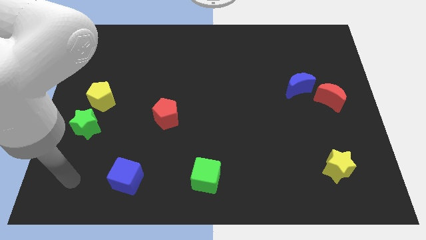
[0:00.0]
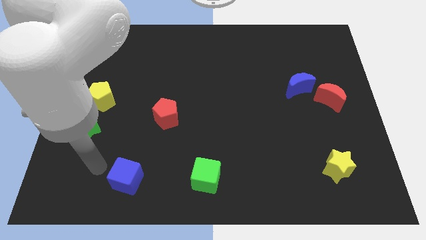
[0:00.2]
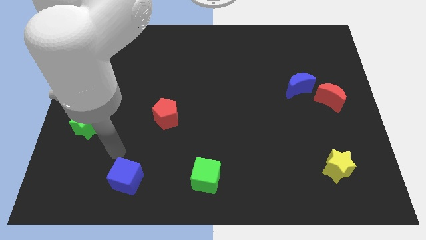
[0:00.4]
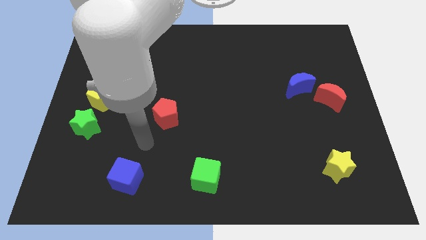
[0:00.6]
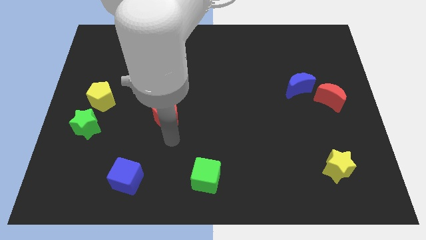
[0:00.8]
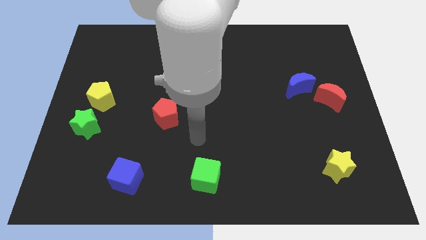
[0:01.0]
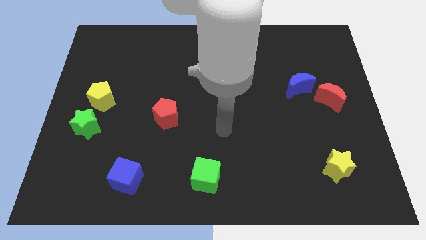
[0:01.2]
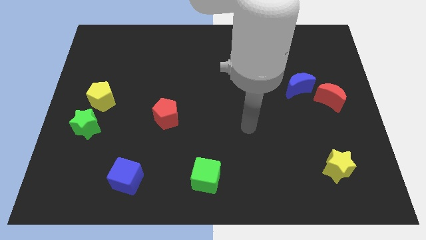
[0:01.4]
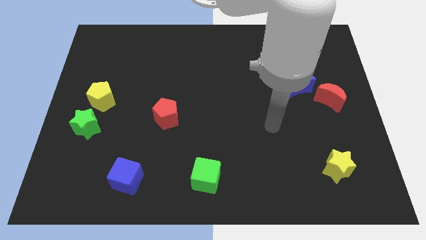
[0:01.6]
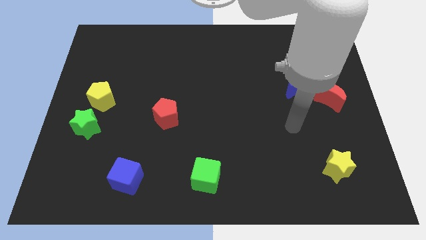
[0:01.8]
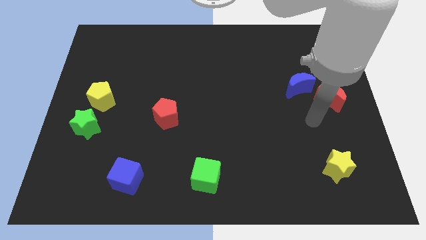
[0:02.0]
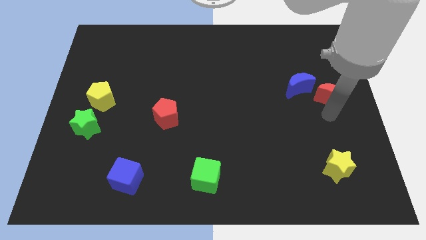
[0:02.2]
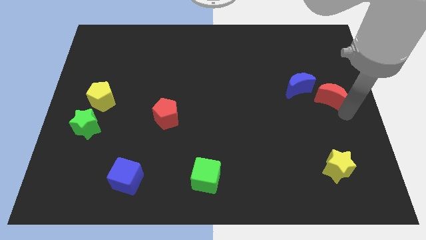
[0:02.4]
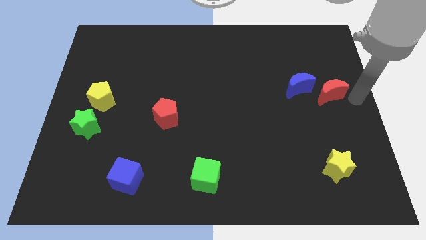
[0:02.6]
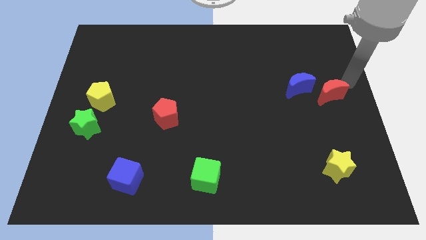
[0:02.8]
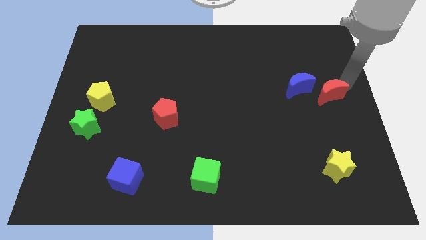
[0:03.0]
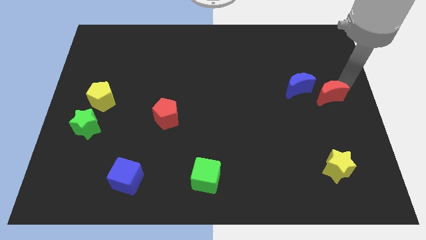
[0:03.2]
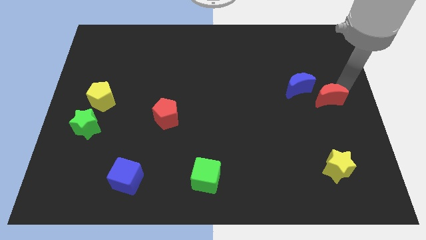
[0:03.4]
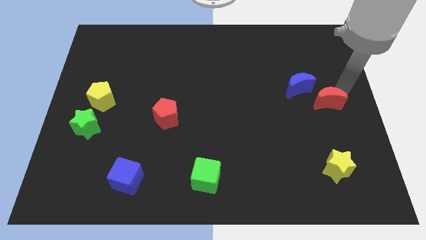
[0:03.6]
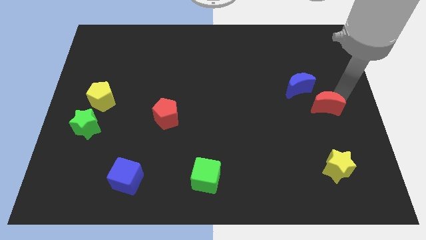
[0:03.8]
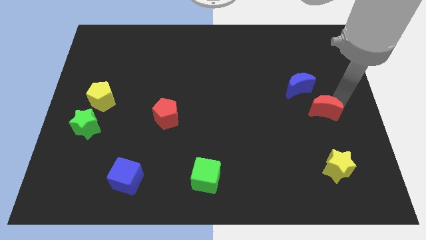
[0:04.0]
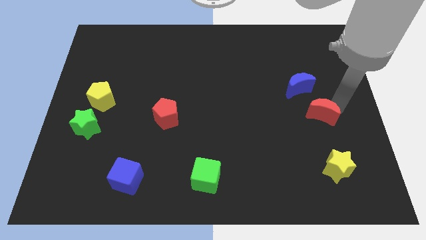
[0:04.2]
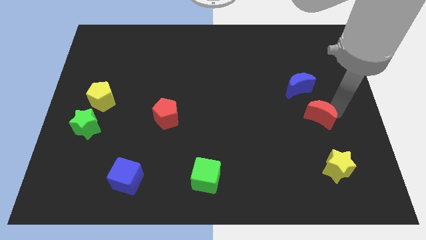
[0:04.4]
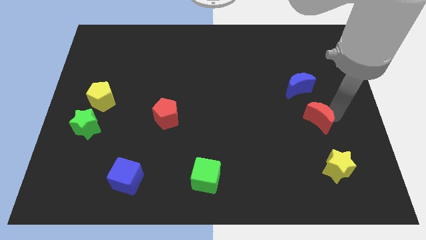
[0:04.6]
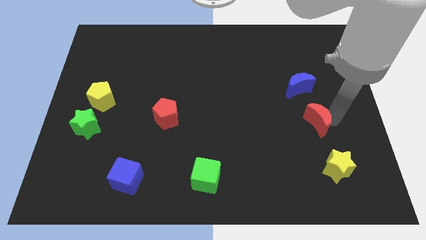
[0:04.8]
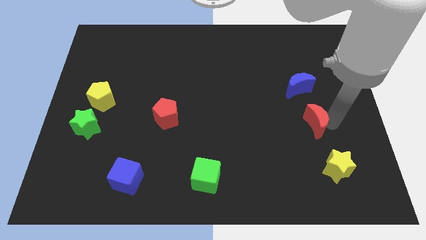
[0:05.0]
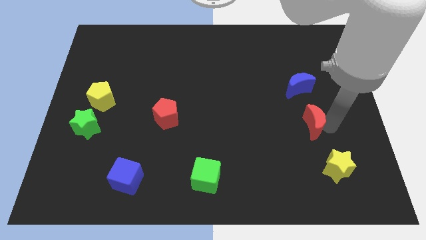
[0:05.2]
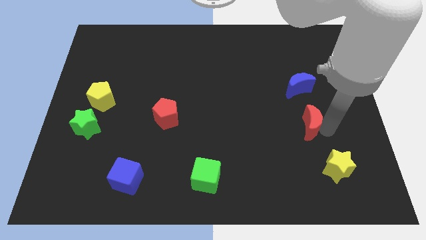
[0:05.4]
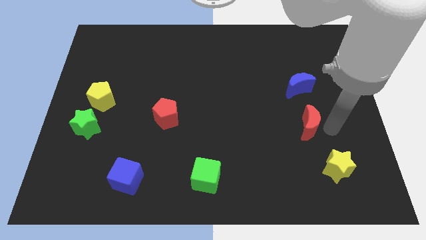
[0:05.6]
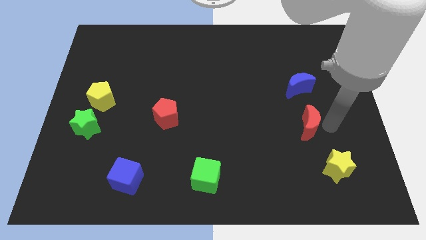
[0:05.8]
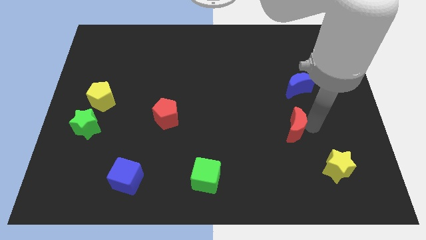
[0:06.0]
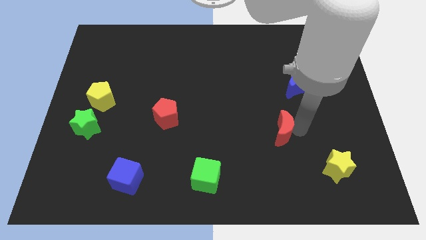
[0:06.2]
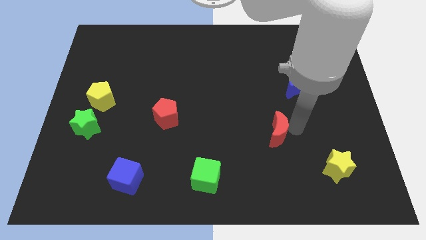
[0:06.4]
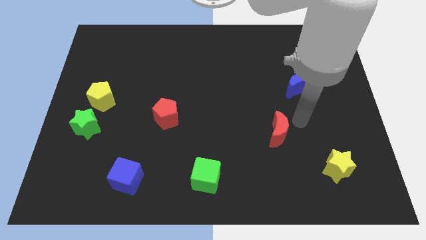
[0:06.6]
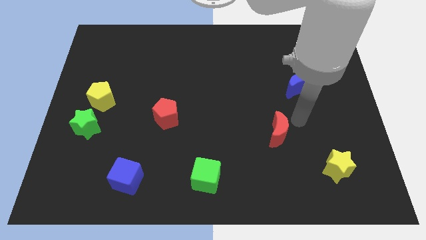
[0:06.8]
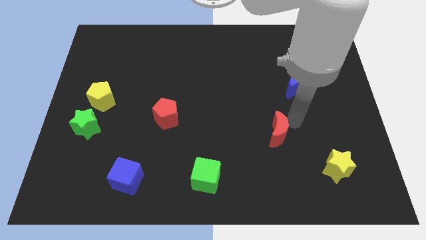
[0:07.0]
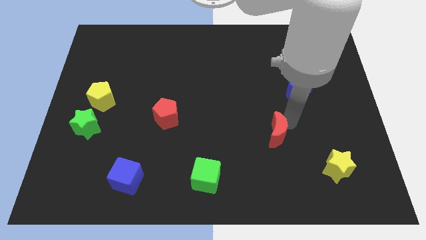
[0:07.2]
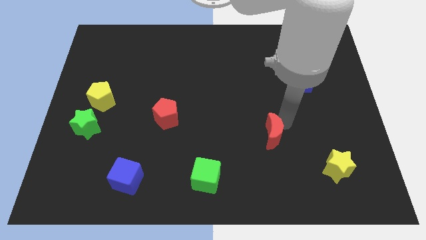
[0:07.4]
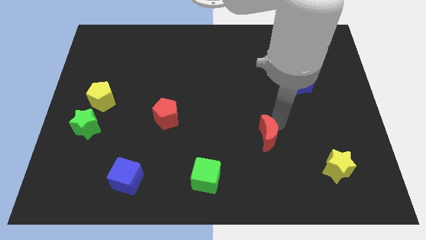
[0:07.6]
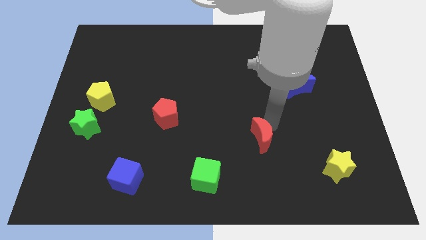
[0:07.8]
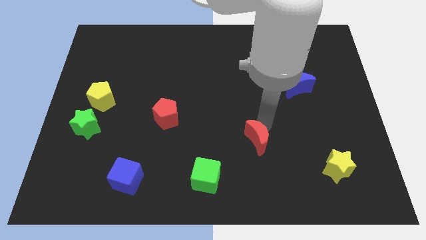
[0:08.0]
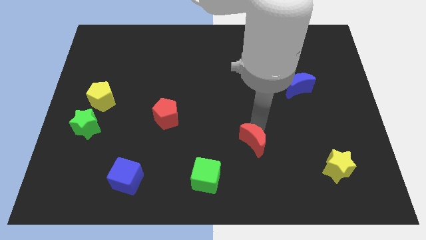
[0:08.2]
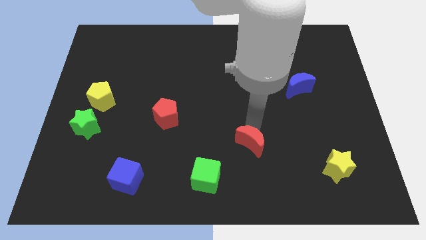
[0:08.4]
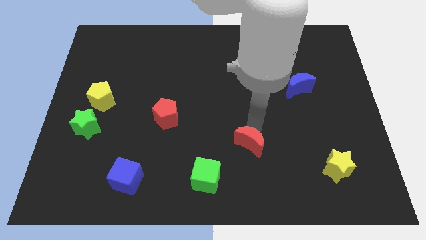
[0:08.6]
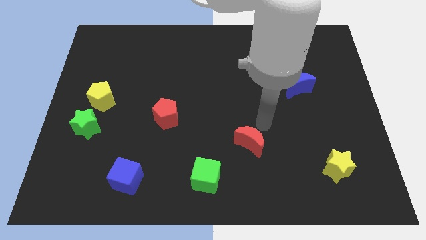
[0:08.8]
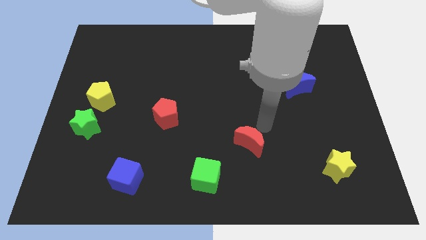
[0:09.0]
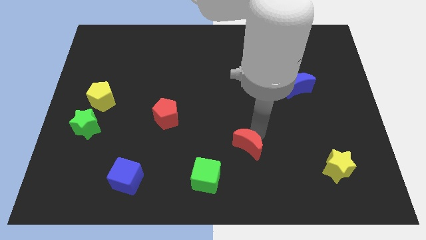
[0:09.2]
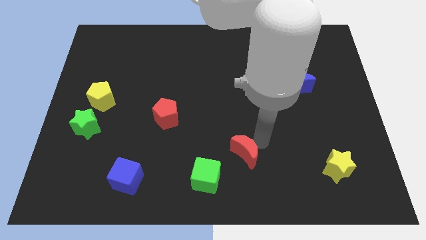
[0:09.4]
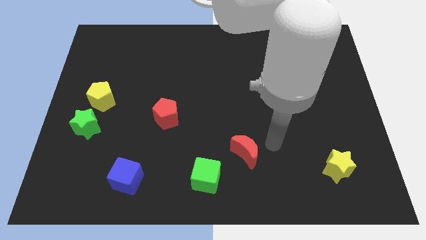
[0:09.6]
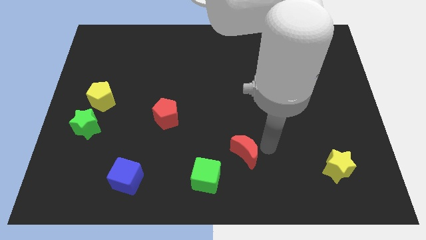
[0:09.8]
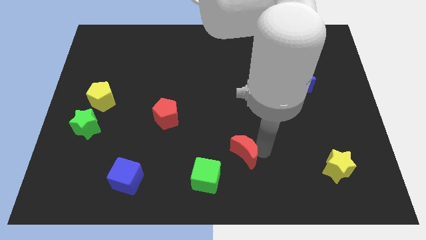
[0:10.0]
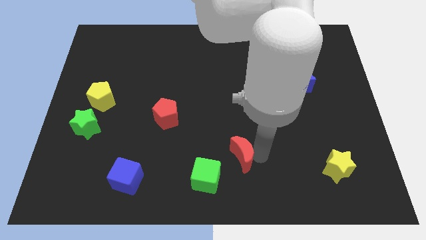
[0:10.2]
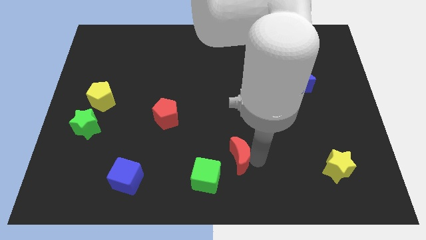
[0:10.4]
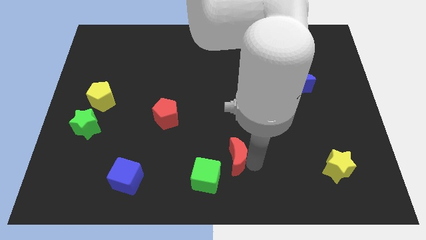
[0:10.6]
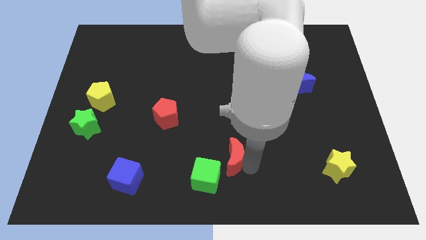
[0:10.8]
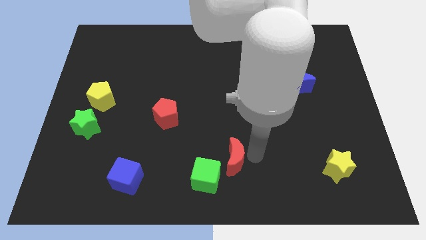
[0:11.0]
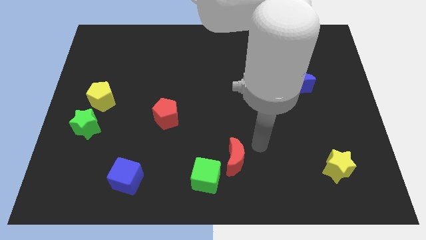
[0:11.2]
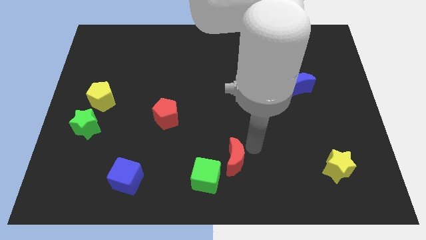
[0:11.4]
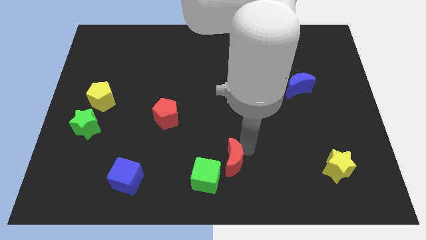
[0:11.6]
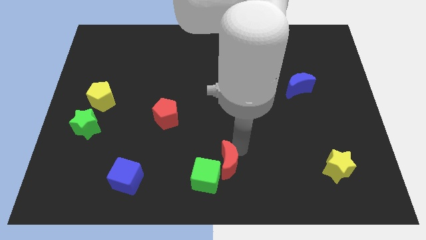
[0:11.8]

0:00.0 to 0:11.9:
put the red moon close to the green cube

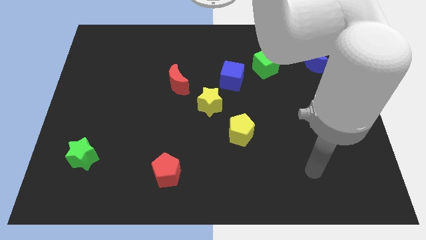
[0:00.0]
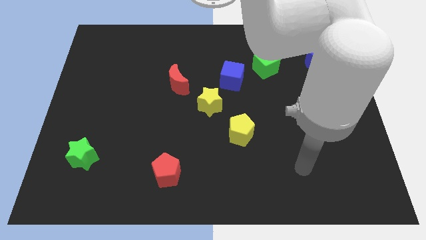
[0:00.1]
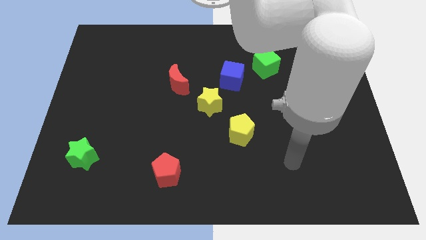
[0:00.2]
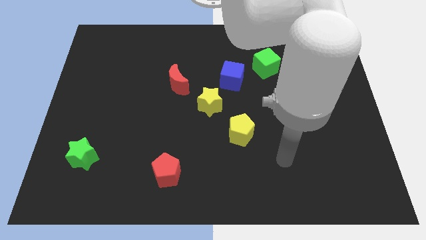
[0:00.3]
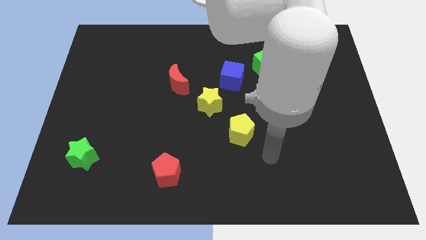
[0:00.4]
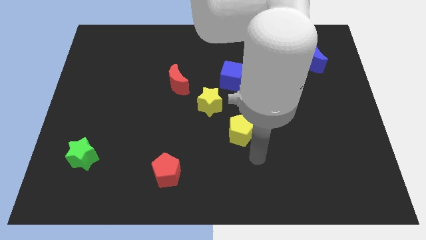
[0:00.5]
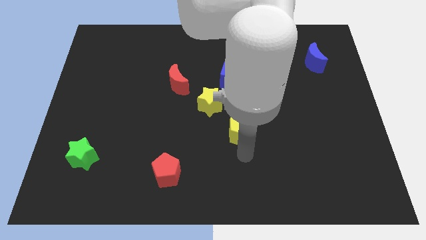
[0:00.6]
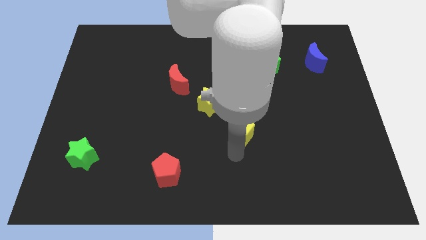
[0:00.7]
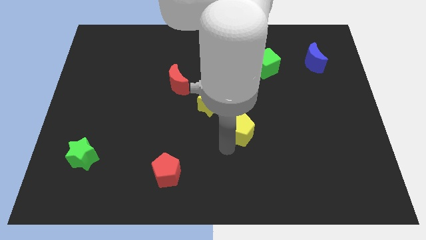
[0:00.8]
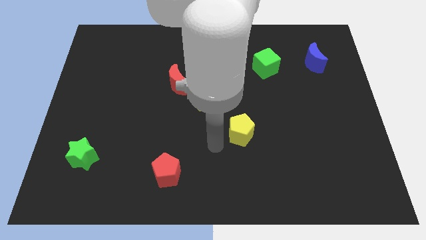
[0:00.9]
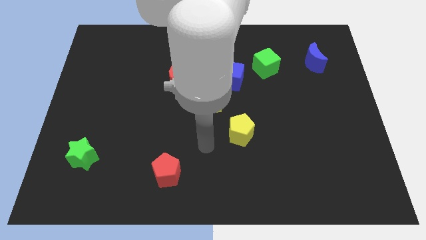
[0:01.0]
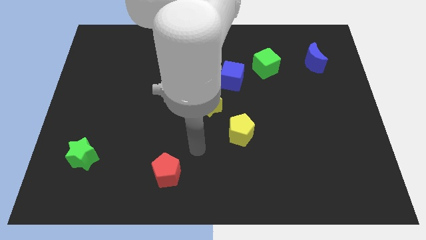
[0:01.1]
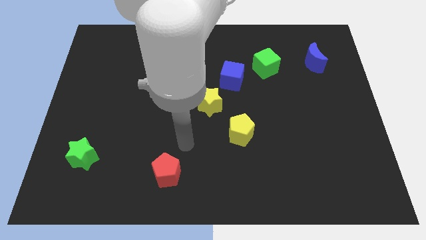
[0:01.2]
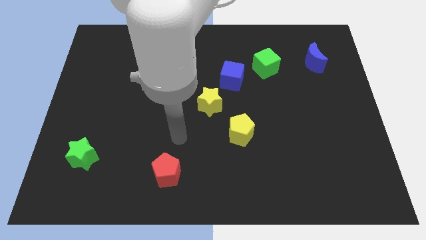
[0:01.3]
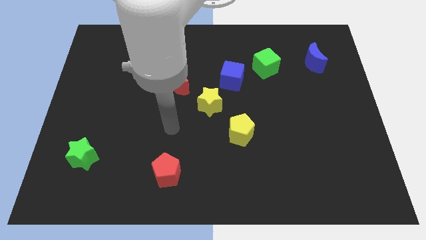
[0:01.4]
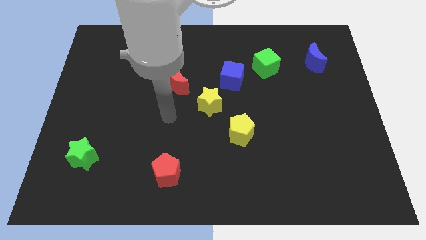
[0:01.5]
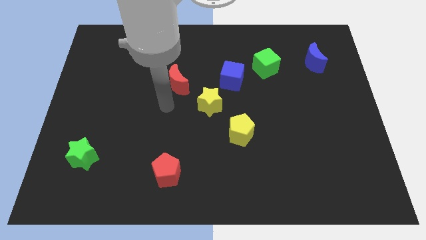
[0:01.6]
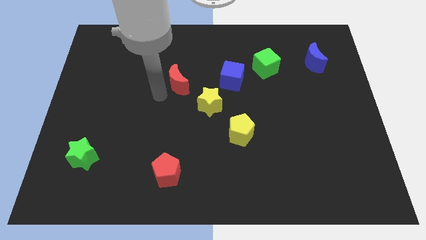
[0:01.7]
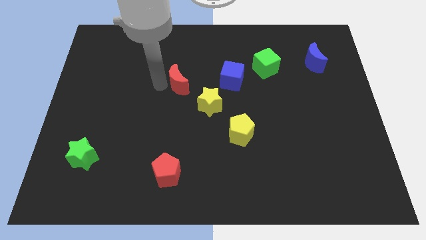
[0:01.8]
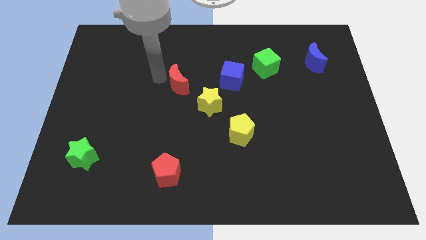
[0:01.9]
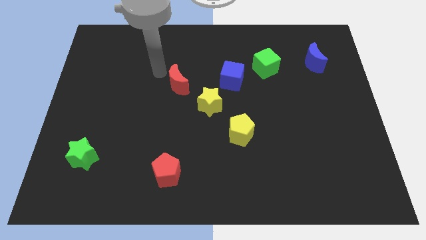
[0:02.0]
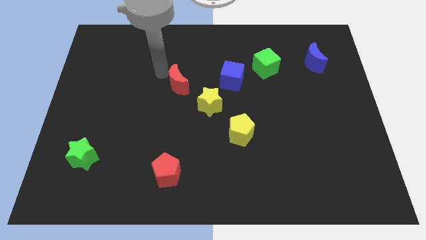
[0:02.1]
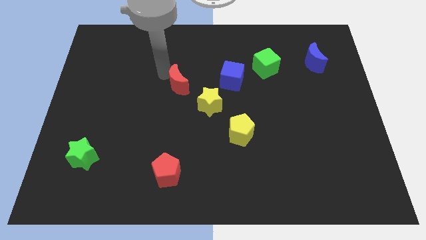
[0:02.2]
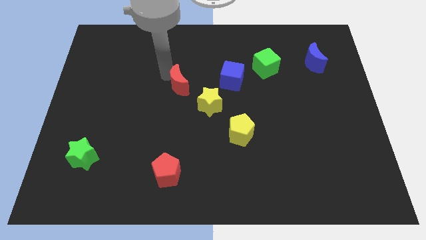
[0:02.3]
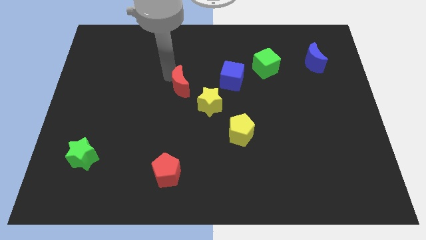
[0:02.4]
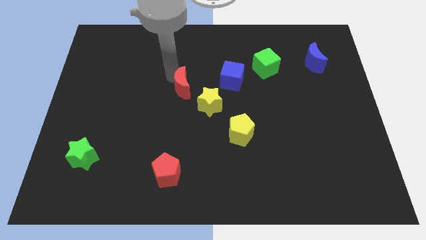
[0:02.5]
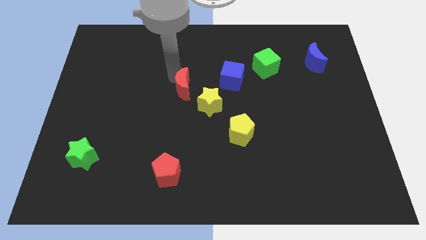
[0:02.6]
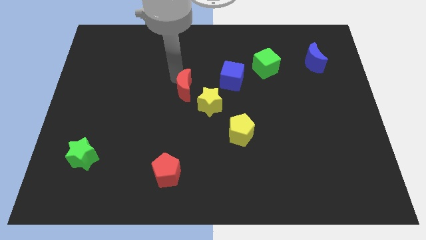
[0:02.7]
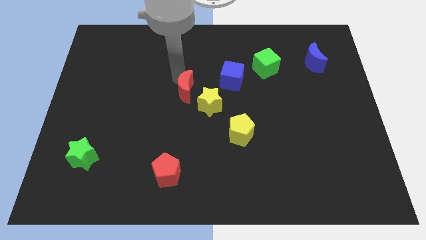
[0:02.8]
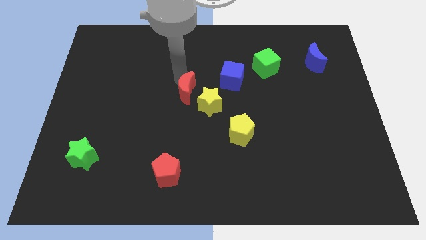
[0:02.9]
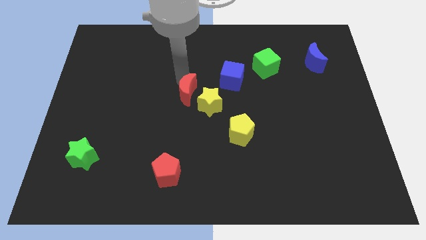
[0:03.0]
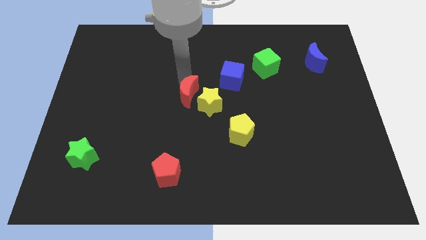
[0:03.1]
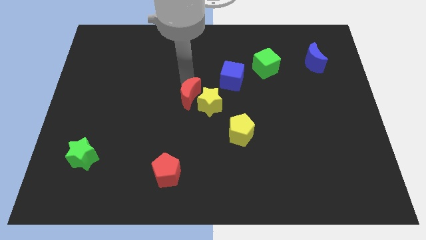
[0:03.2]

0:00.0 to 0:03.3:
move the red moon close to the yellow star
